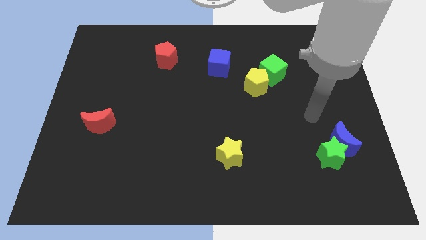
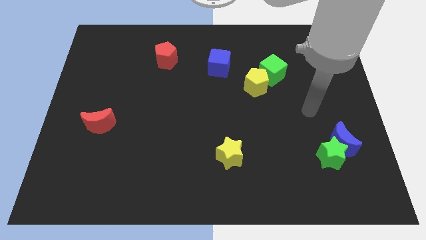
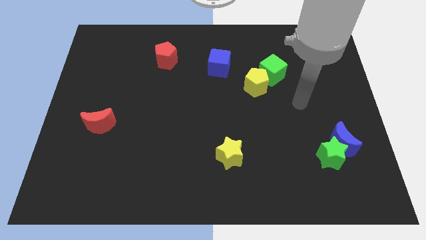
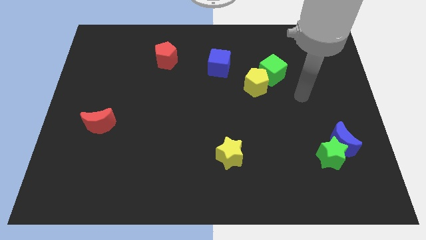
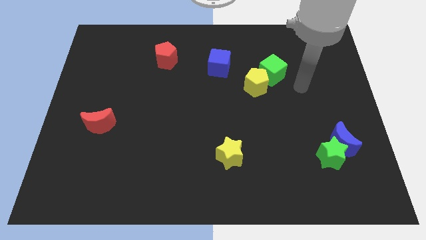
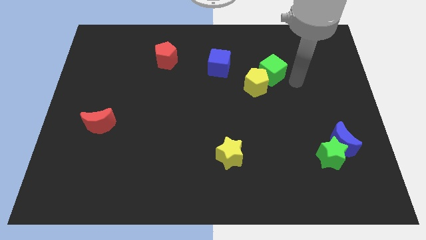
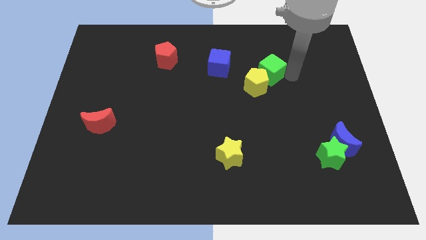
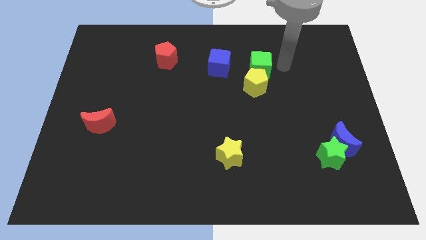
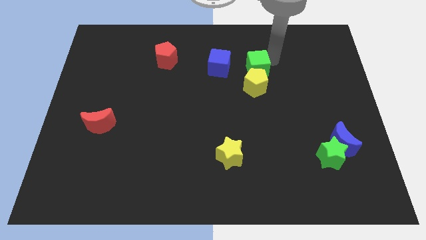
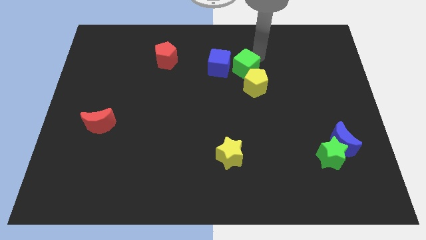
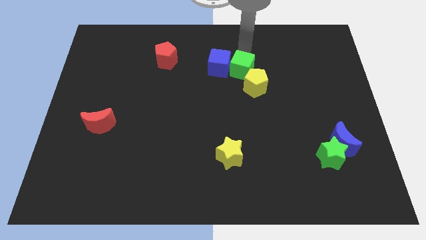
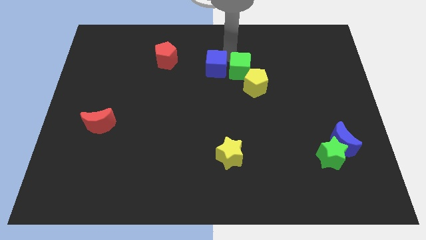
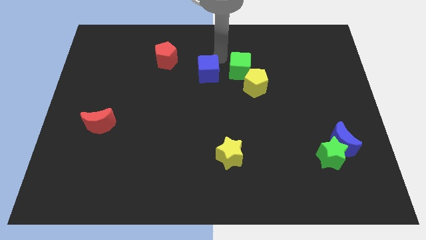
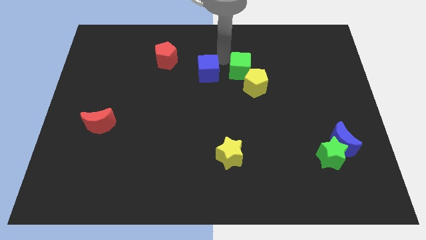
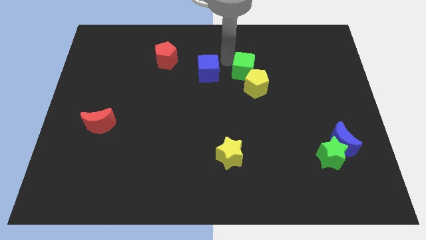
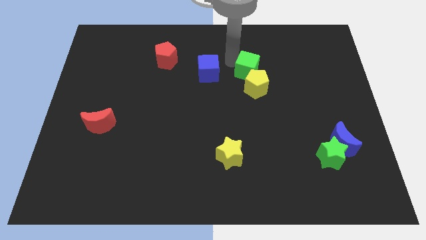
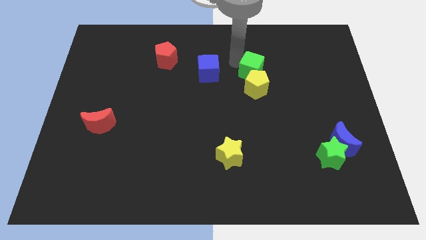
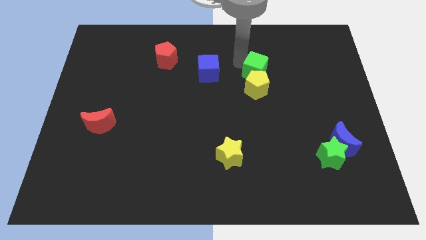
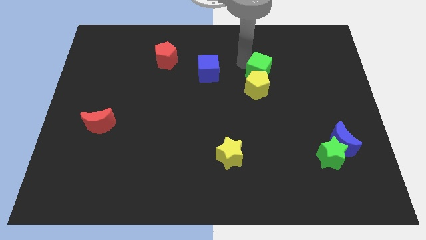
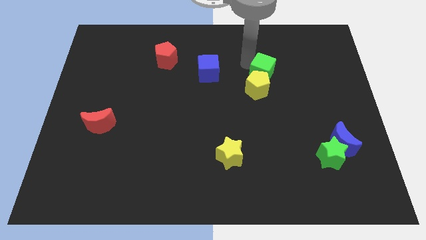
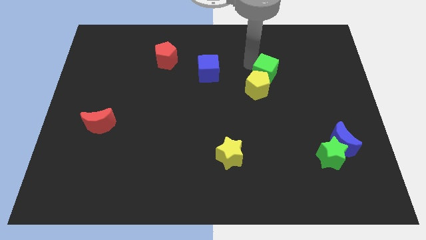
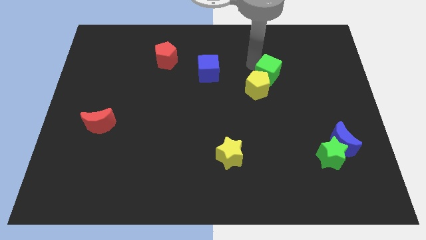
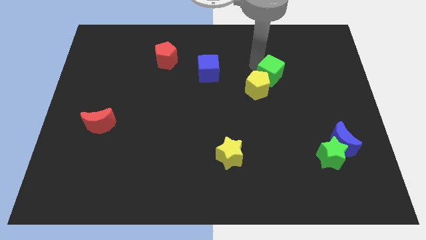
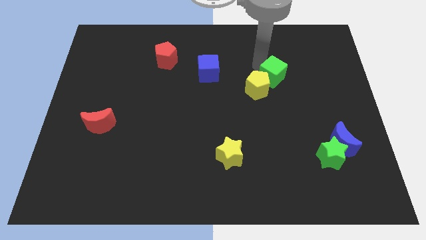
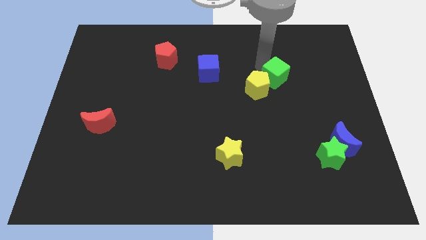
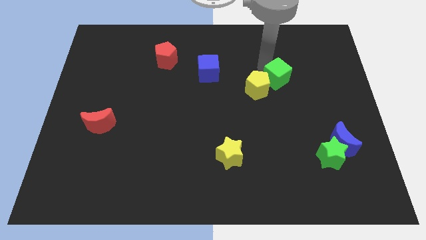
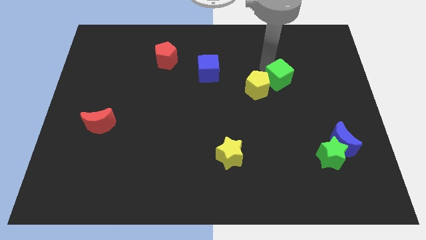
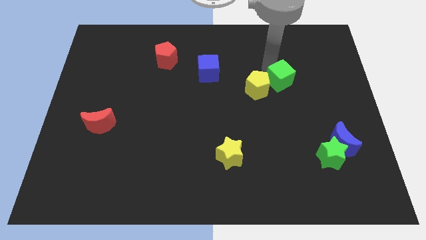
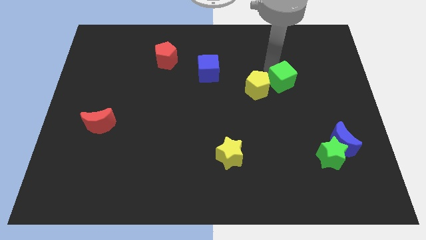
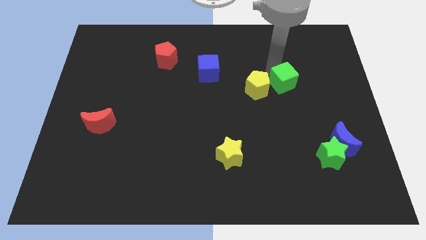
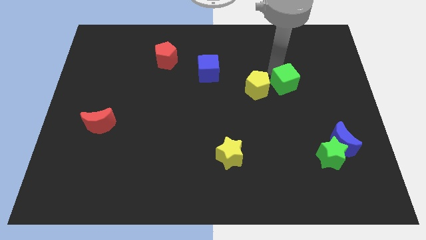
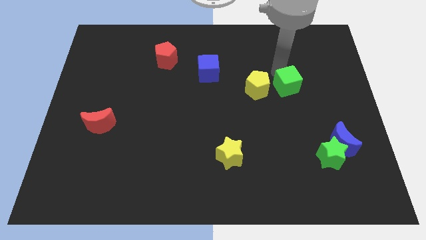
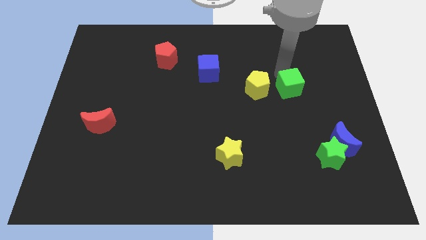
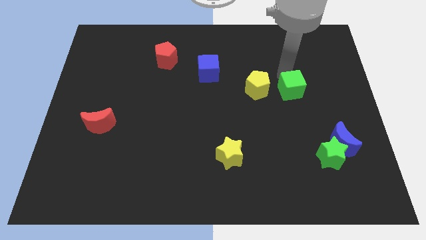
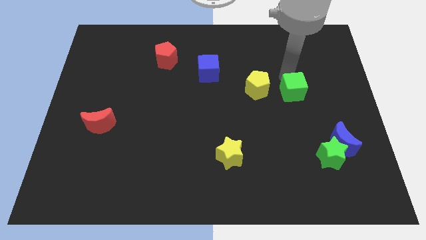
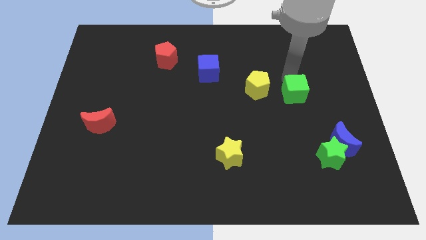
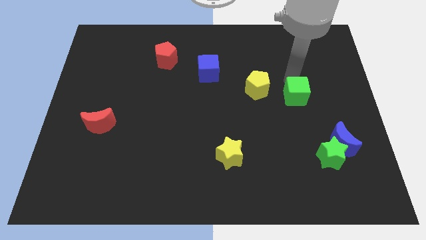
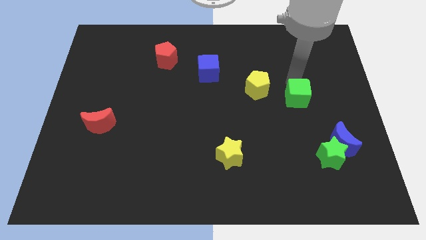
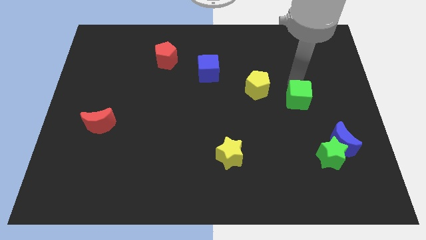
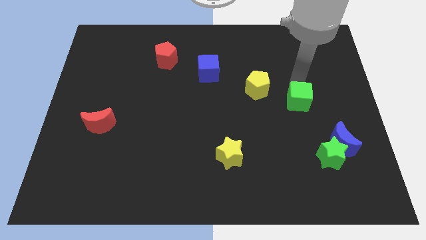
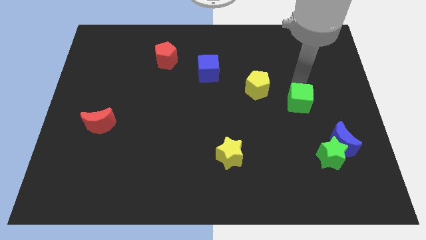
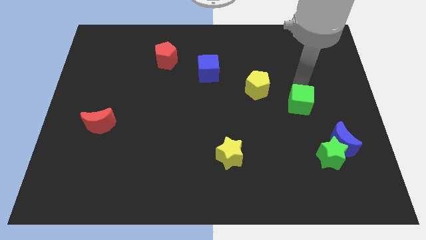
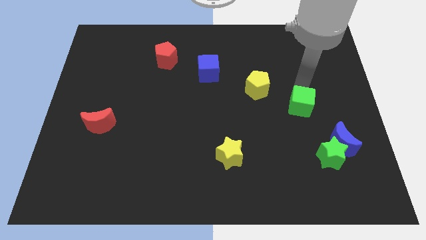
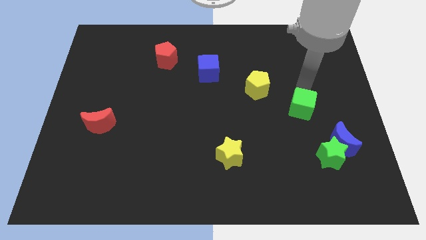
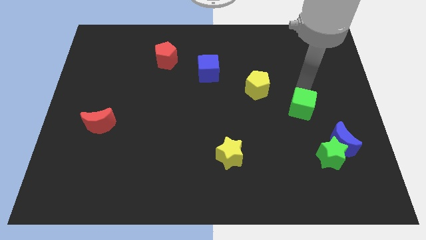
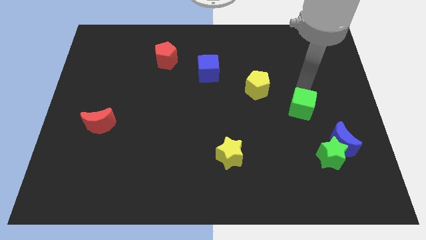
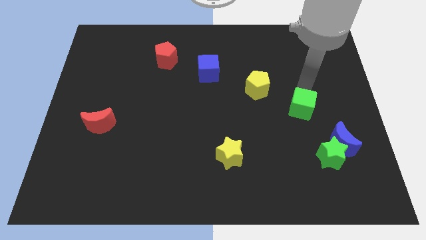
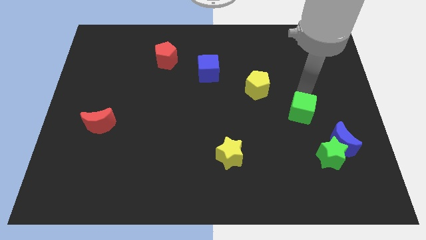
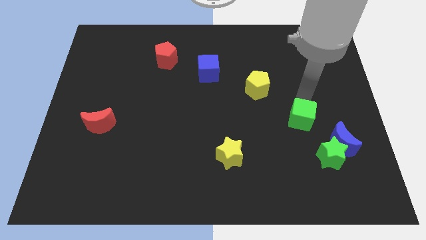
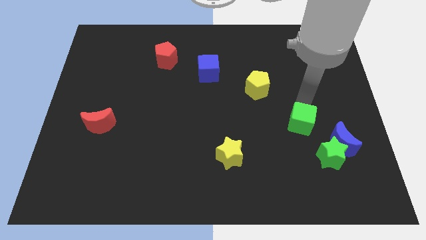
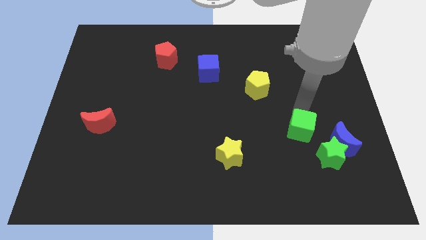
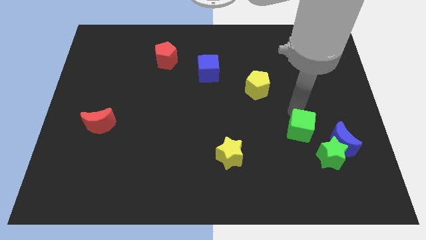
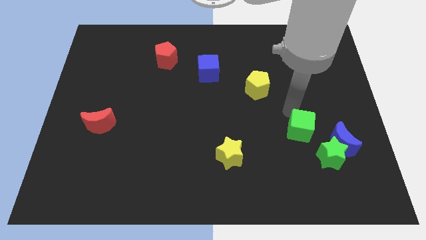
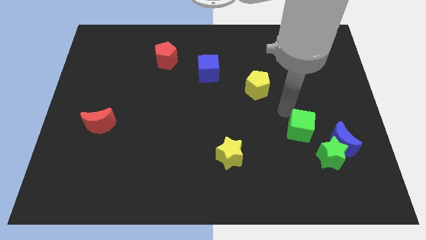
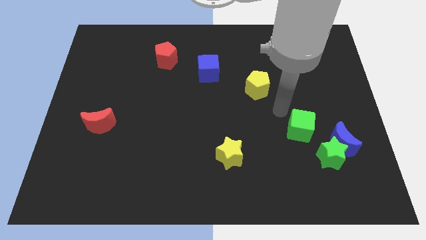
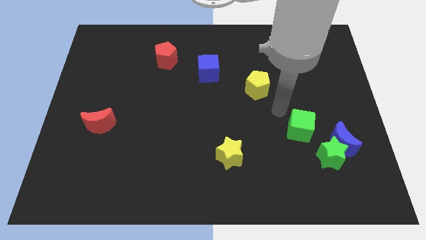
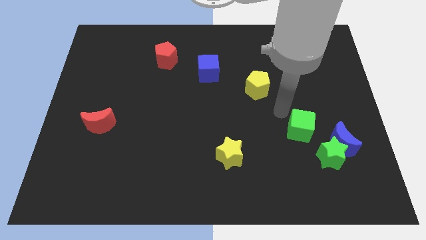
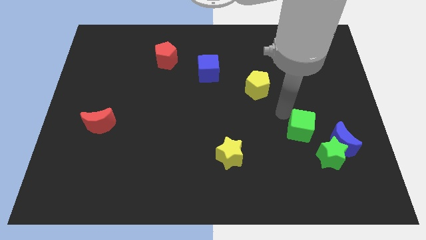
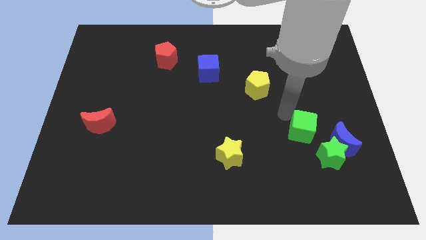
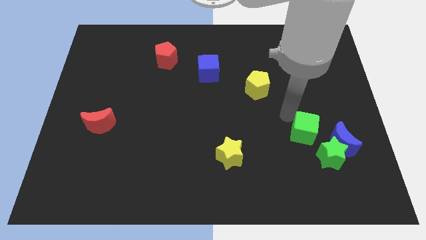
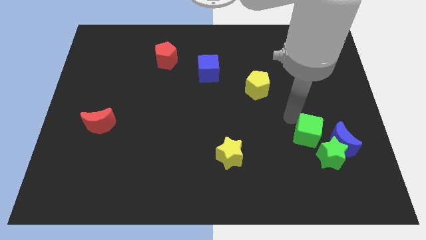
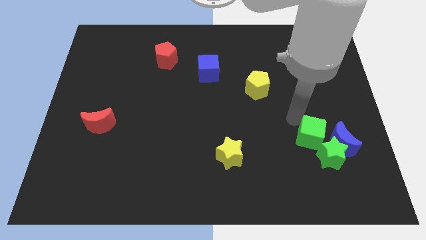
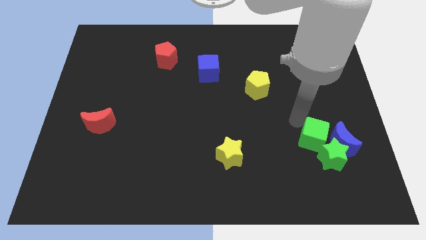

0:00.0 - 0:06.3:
slide the green cube next to the green star

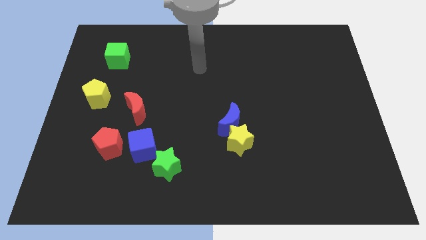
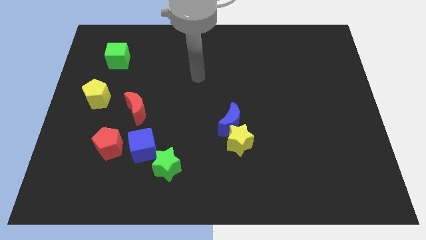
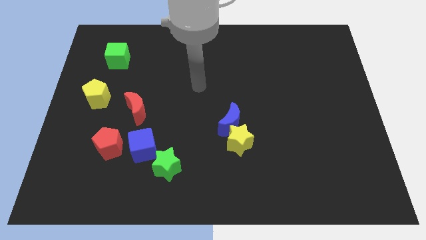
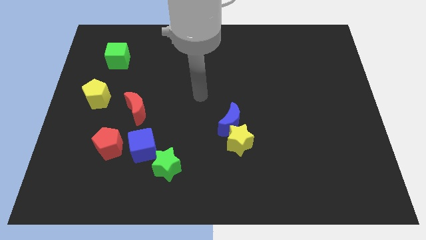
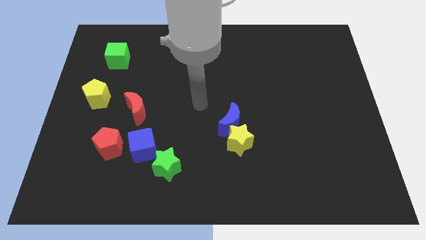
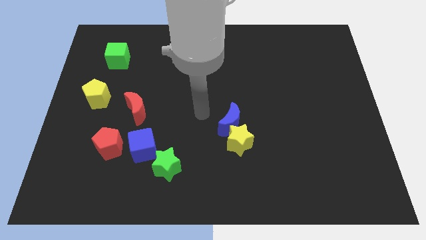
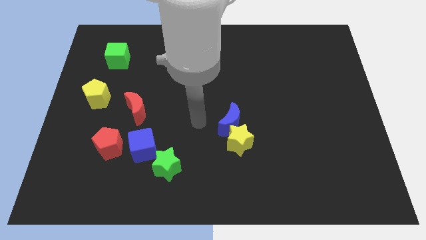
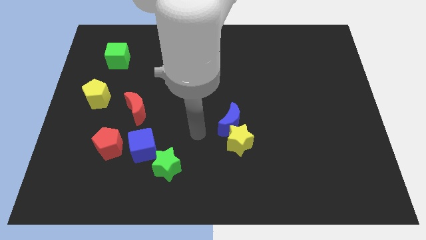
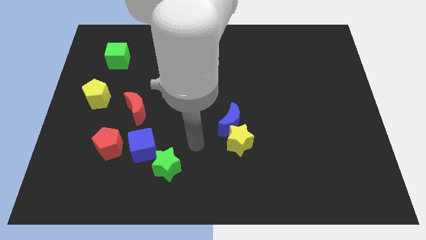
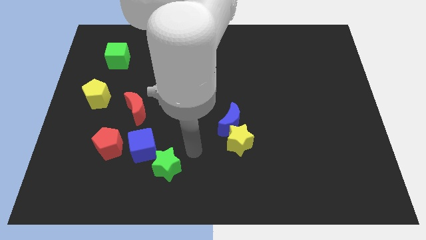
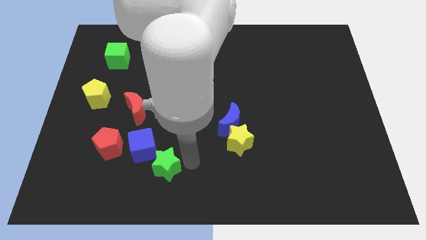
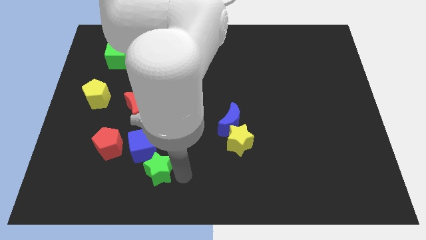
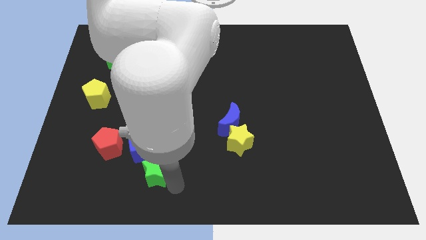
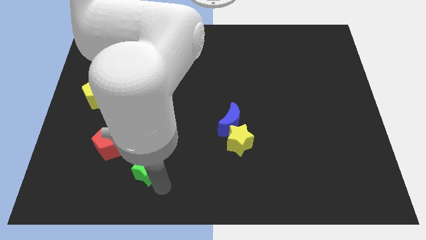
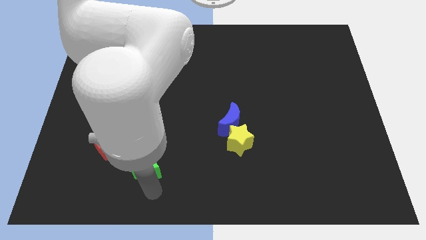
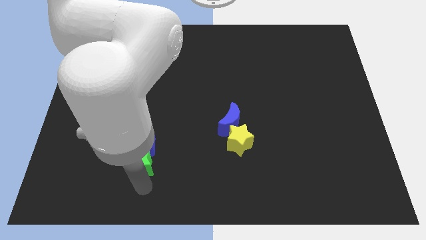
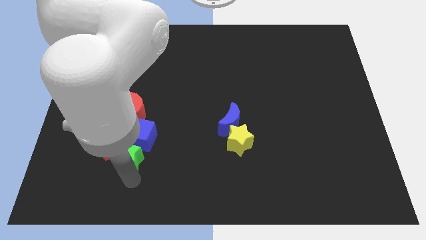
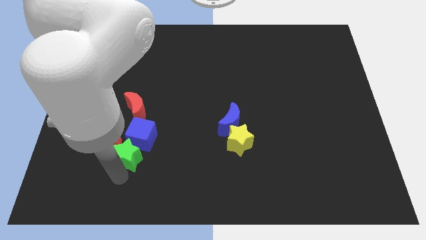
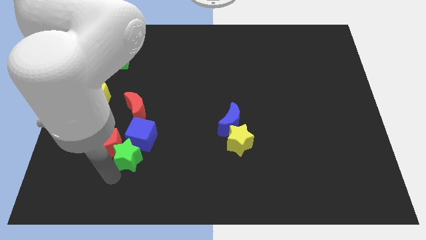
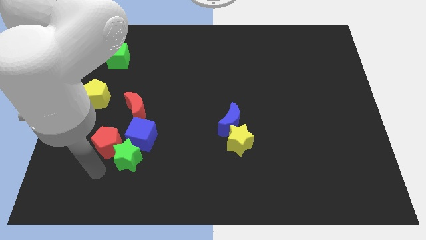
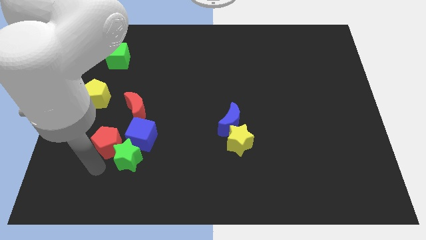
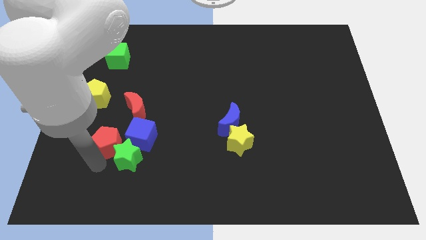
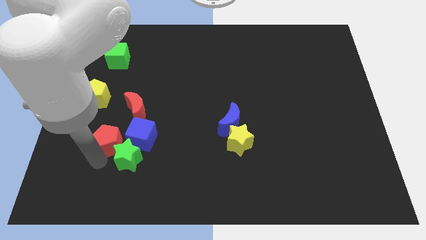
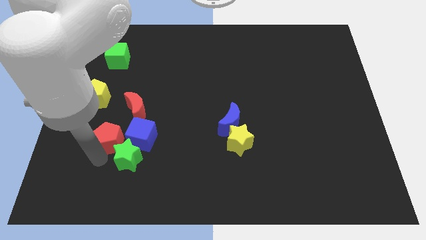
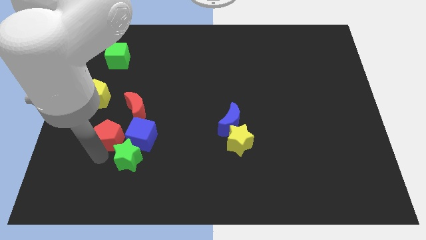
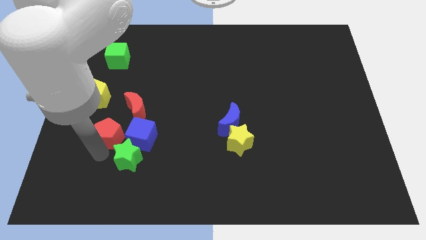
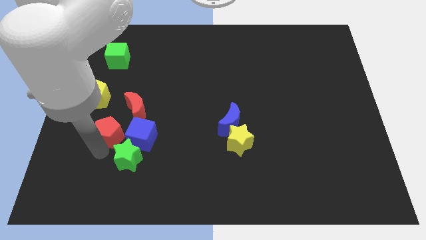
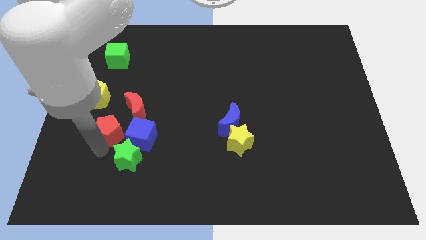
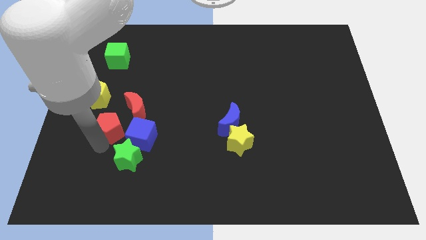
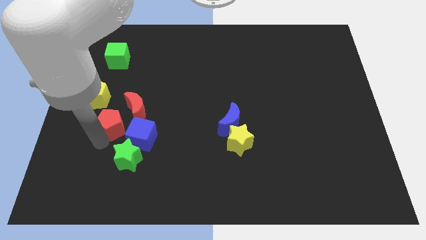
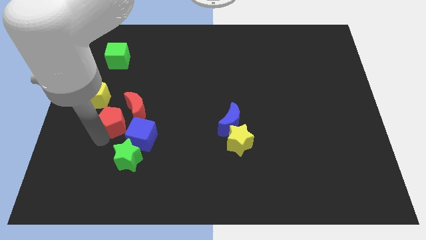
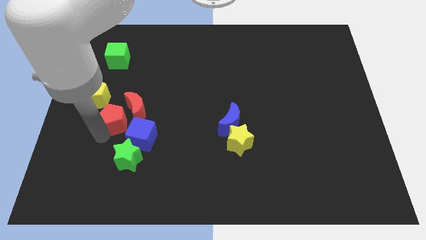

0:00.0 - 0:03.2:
put the red pentagon towards the red moon
